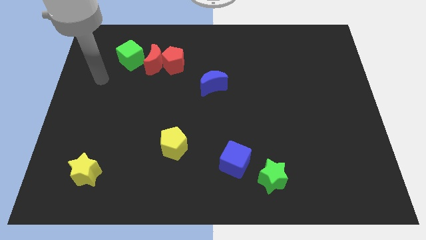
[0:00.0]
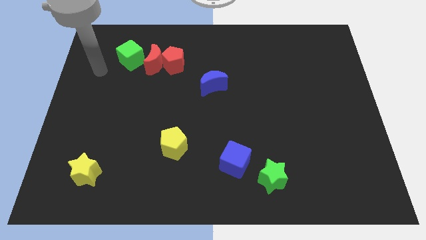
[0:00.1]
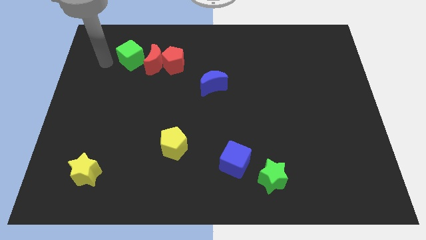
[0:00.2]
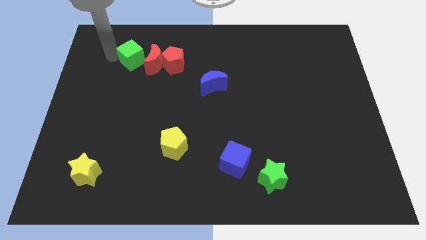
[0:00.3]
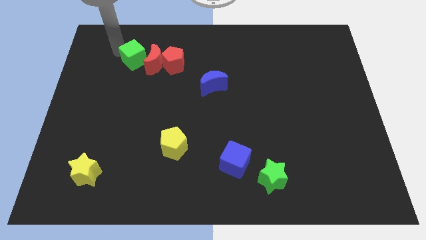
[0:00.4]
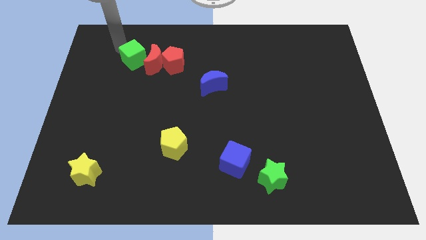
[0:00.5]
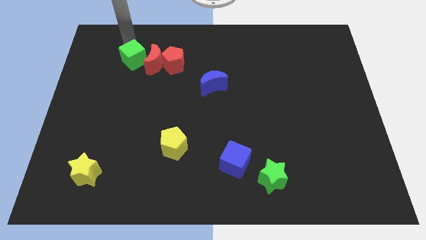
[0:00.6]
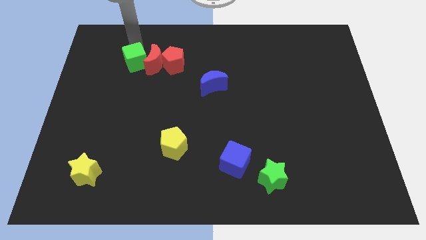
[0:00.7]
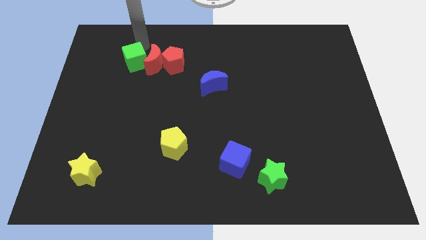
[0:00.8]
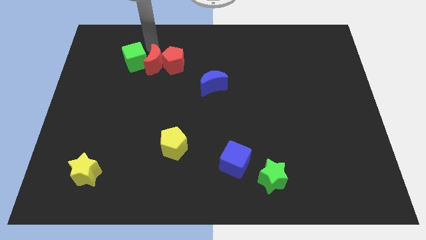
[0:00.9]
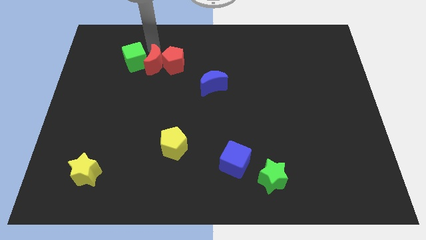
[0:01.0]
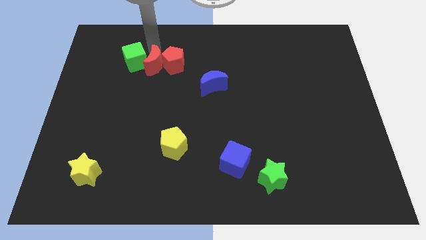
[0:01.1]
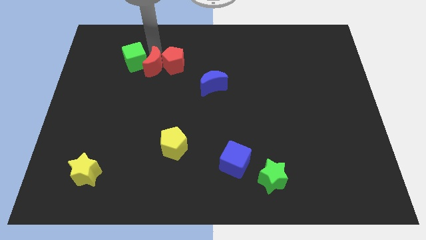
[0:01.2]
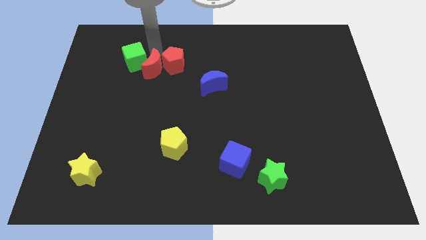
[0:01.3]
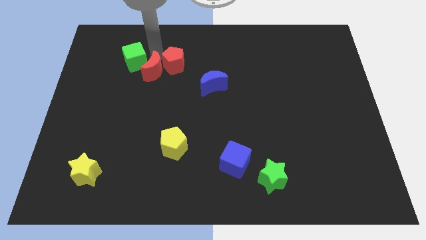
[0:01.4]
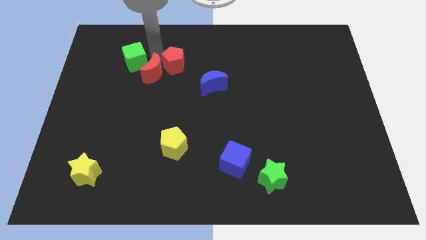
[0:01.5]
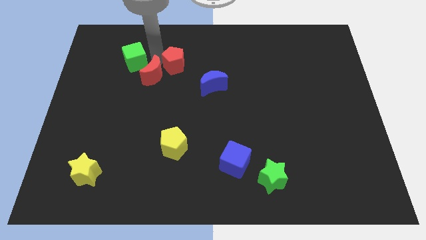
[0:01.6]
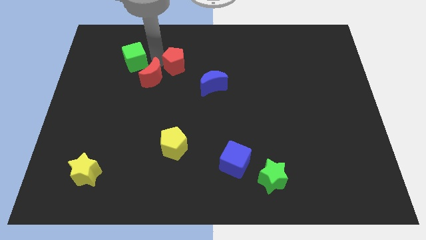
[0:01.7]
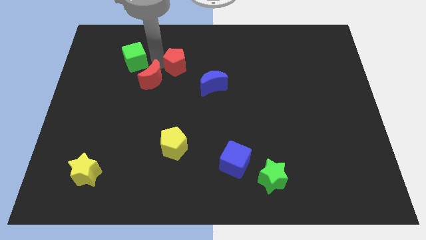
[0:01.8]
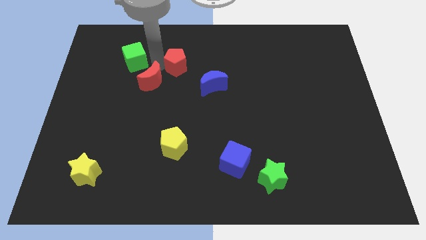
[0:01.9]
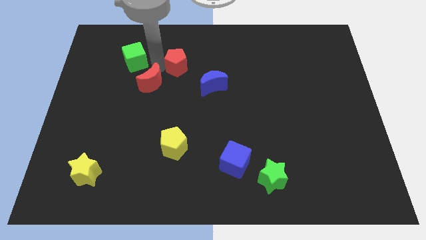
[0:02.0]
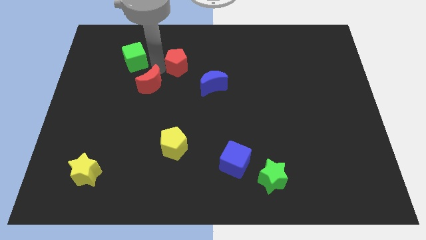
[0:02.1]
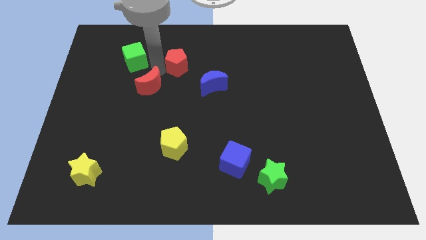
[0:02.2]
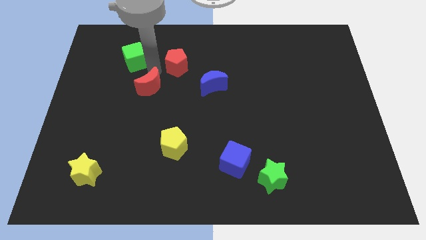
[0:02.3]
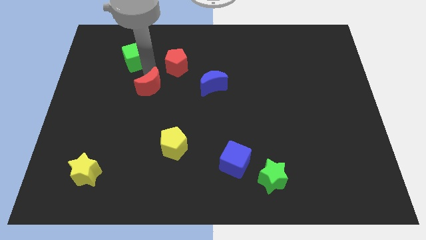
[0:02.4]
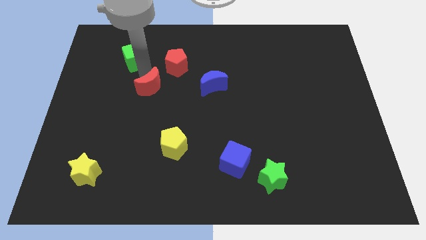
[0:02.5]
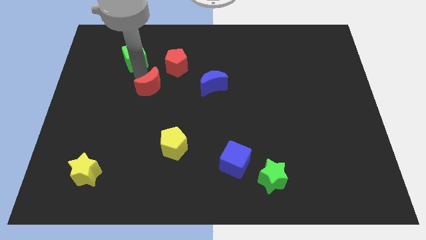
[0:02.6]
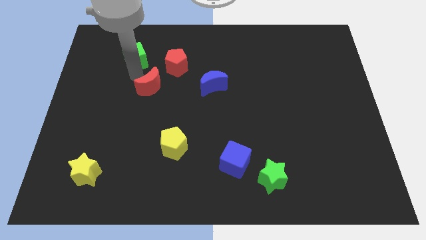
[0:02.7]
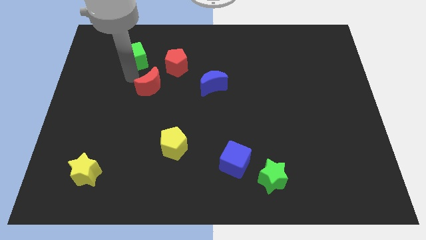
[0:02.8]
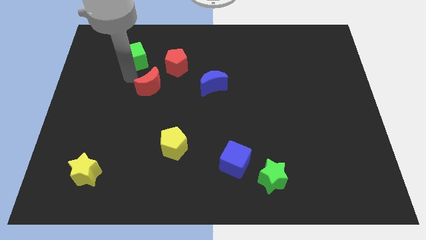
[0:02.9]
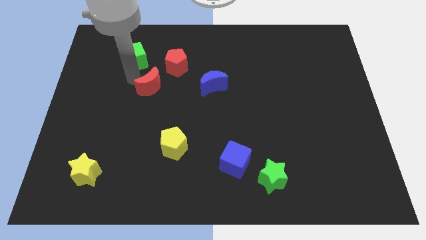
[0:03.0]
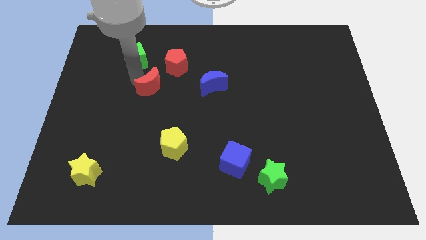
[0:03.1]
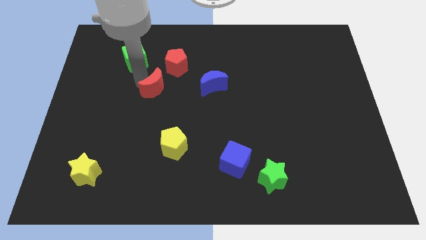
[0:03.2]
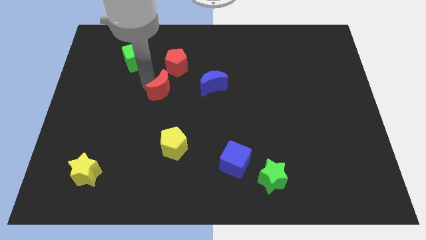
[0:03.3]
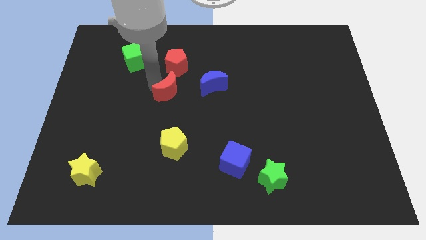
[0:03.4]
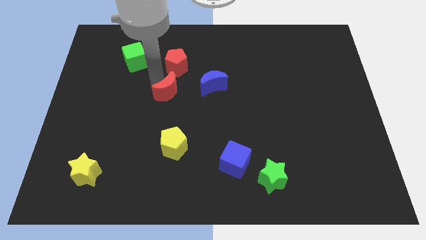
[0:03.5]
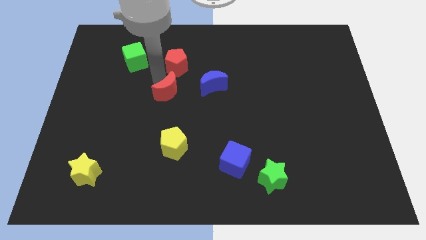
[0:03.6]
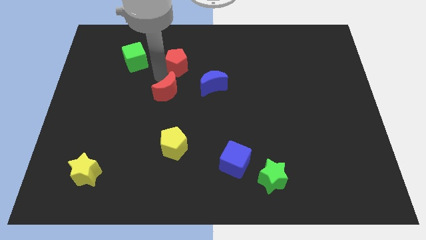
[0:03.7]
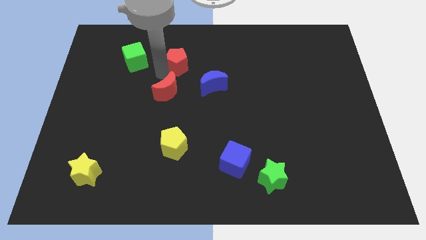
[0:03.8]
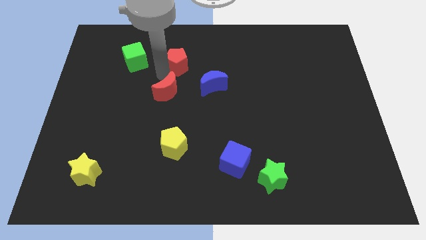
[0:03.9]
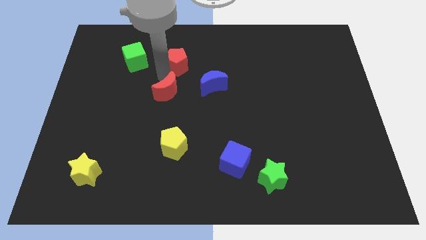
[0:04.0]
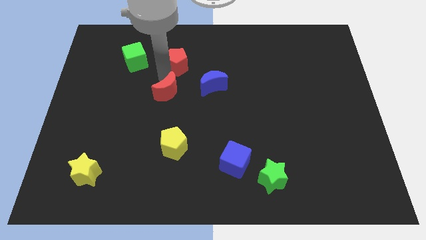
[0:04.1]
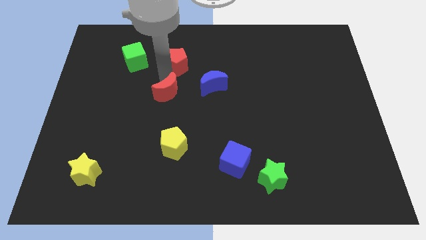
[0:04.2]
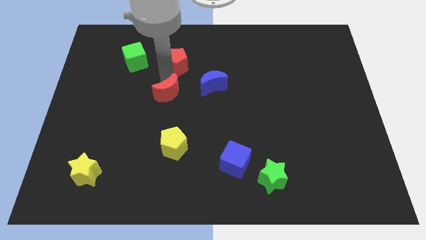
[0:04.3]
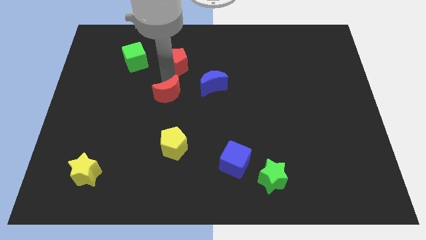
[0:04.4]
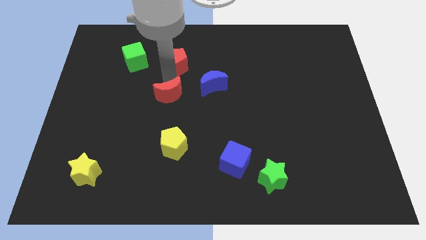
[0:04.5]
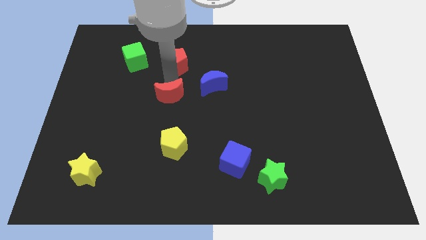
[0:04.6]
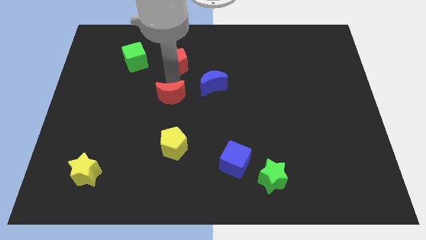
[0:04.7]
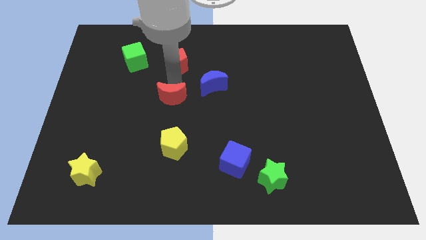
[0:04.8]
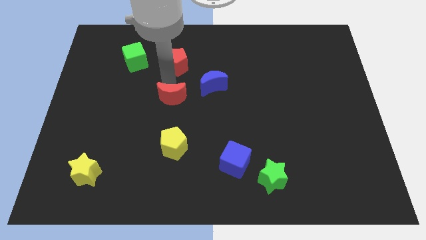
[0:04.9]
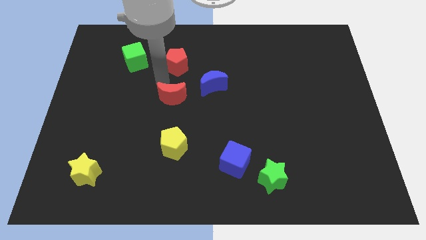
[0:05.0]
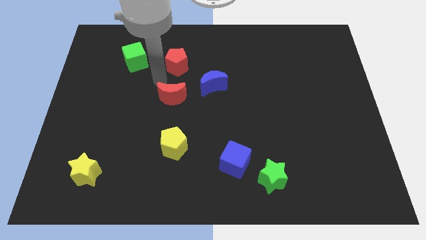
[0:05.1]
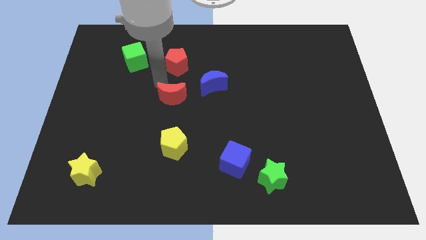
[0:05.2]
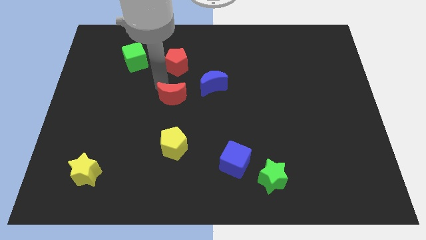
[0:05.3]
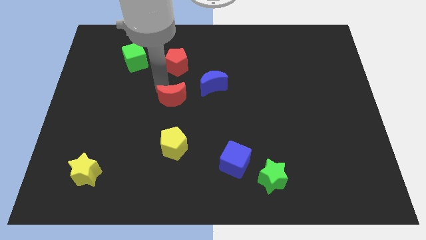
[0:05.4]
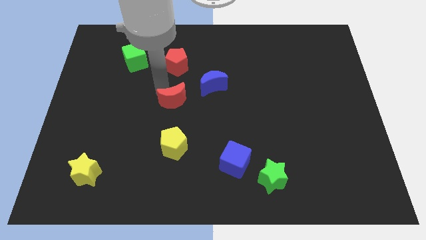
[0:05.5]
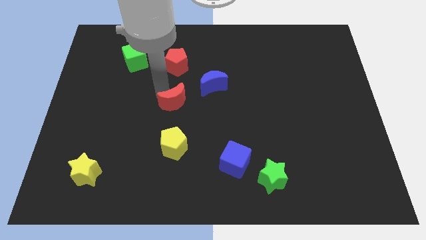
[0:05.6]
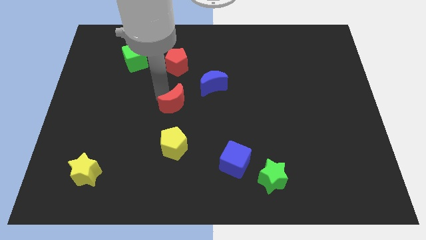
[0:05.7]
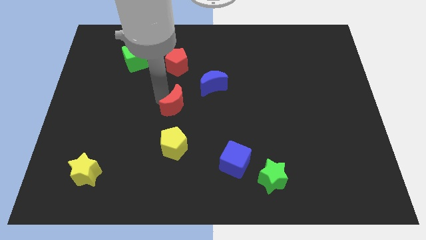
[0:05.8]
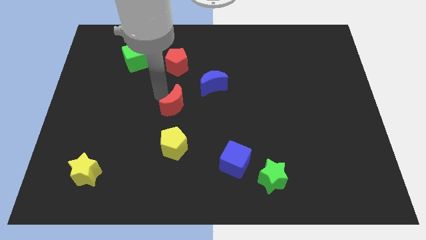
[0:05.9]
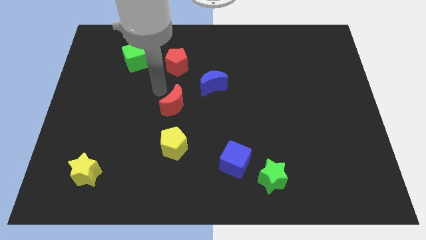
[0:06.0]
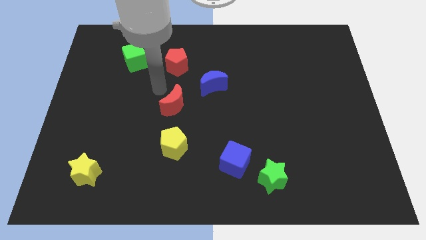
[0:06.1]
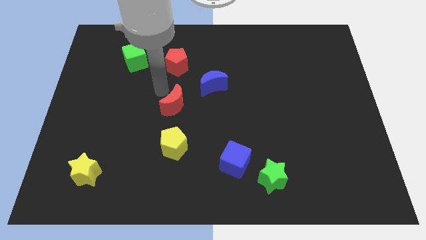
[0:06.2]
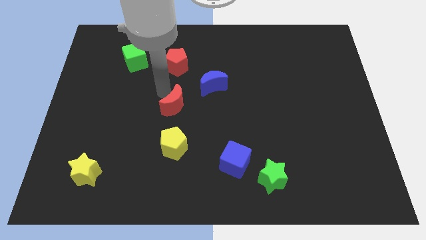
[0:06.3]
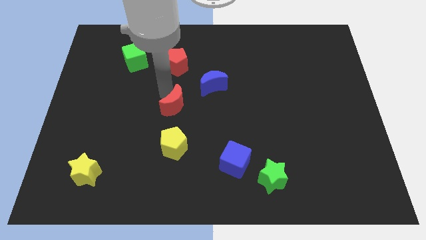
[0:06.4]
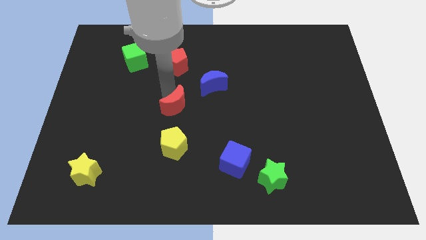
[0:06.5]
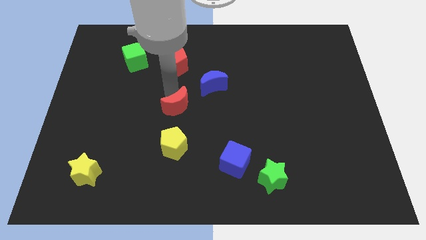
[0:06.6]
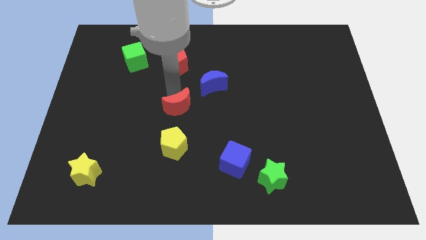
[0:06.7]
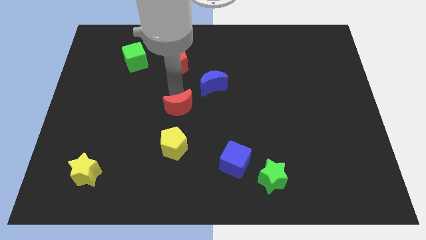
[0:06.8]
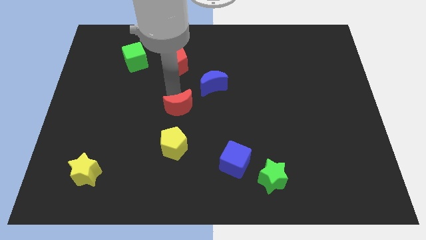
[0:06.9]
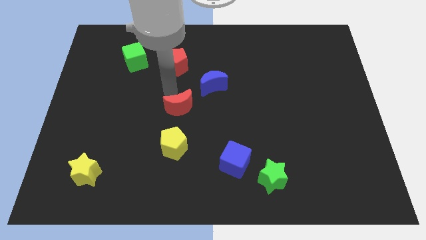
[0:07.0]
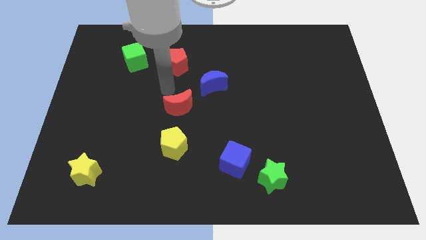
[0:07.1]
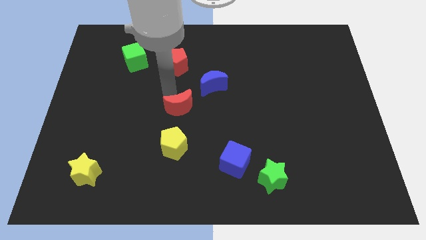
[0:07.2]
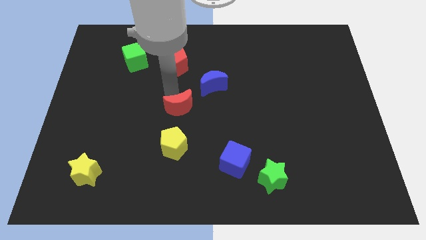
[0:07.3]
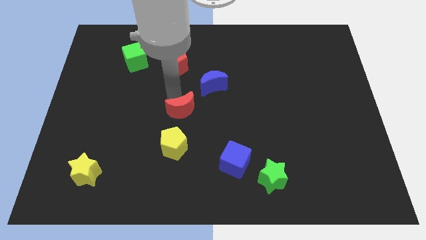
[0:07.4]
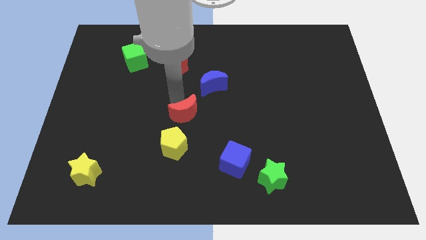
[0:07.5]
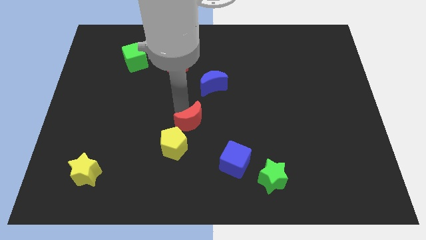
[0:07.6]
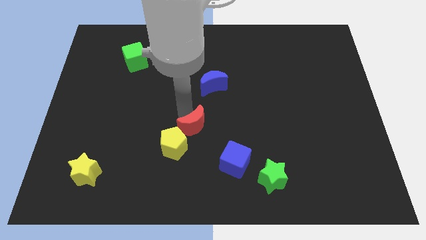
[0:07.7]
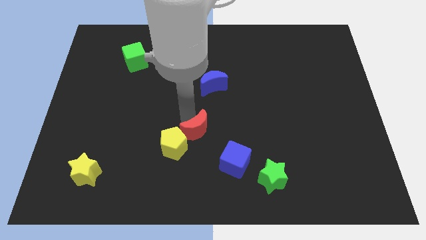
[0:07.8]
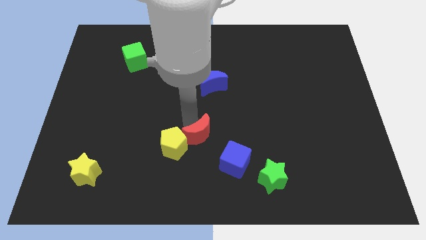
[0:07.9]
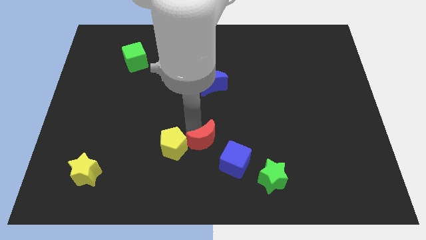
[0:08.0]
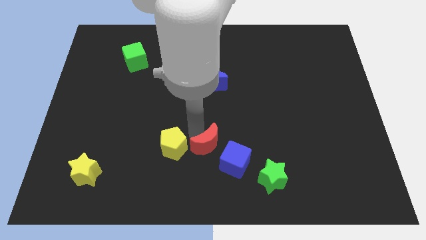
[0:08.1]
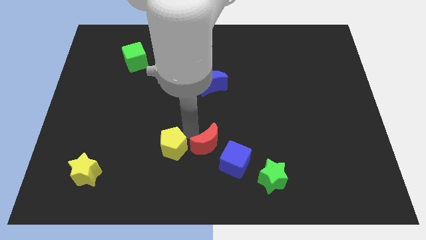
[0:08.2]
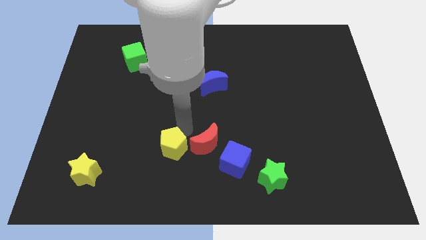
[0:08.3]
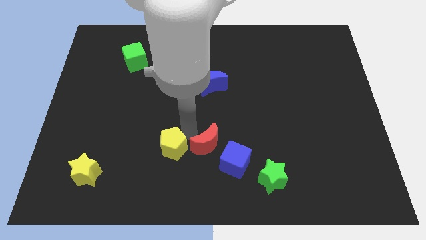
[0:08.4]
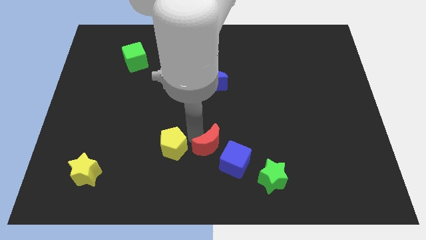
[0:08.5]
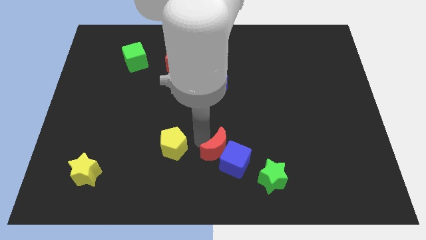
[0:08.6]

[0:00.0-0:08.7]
move the red moon next to the blue cube
